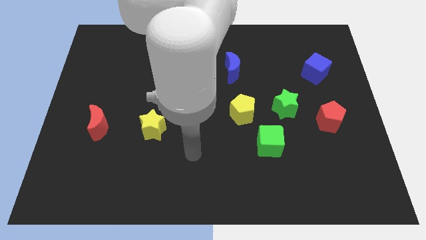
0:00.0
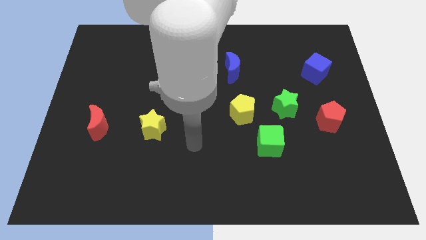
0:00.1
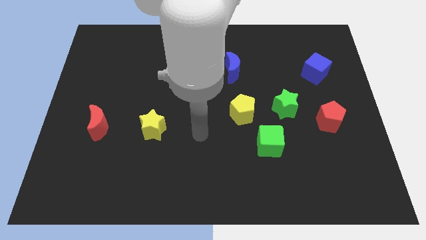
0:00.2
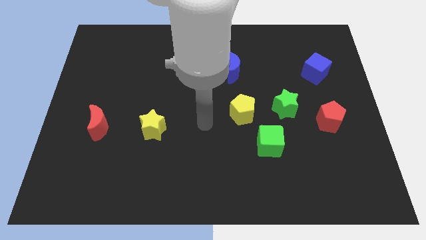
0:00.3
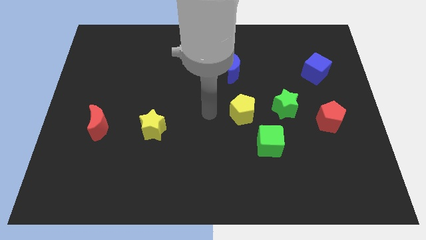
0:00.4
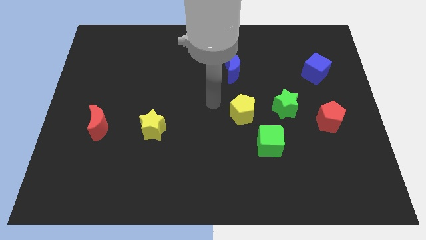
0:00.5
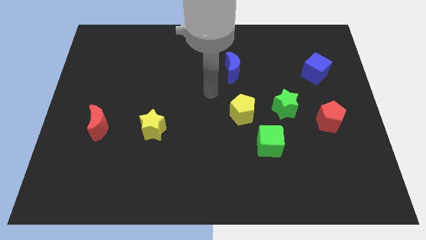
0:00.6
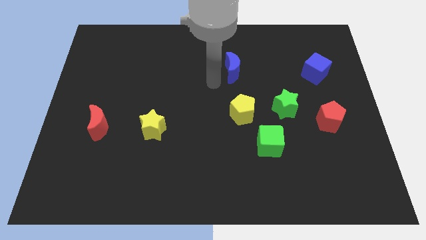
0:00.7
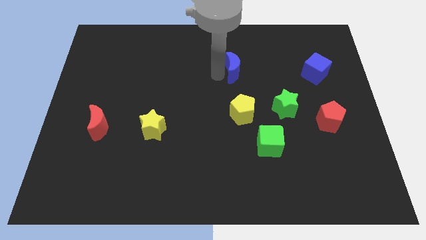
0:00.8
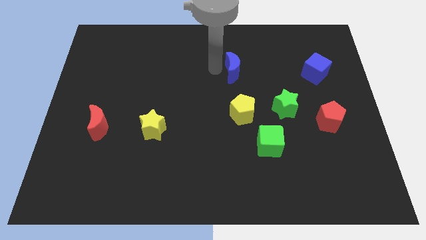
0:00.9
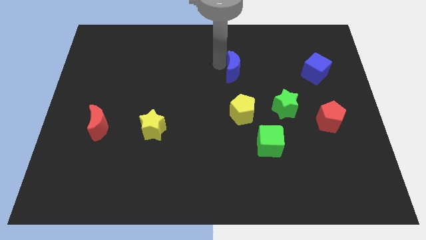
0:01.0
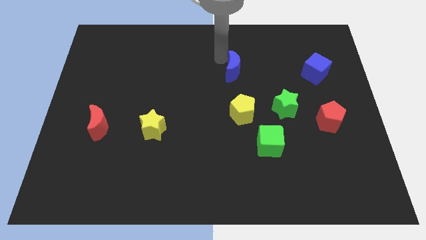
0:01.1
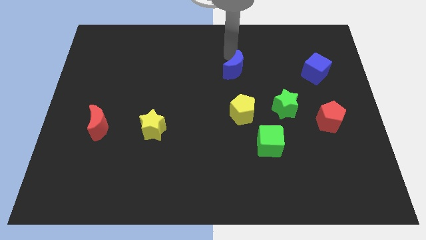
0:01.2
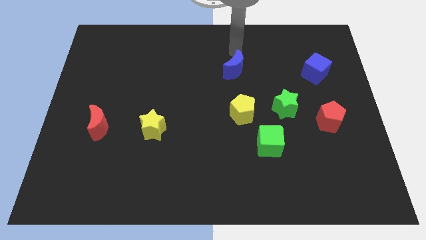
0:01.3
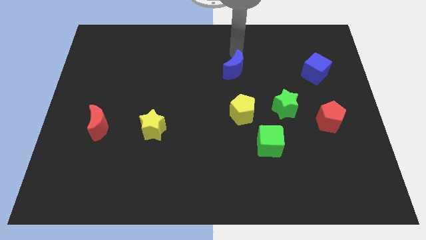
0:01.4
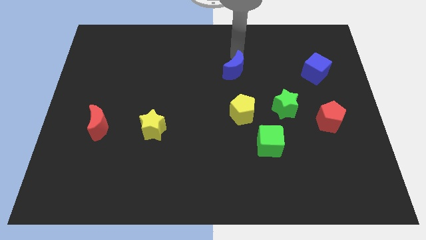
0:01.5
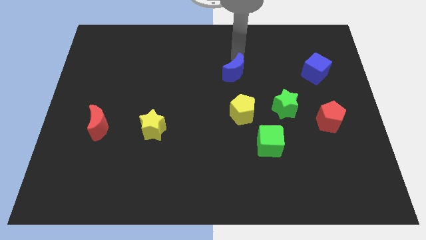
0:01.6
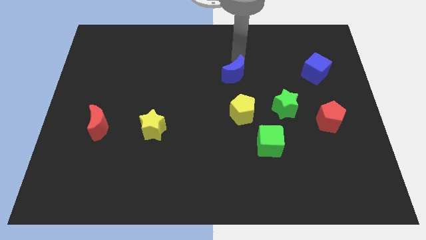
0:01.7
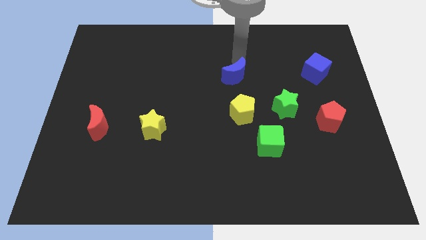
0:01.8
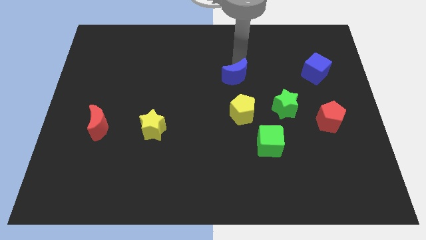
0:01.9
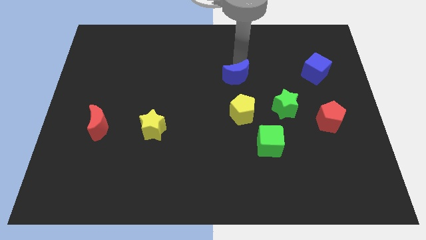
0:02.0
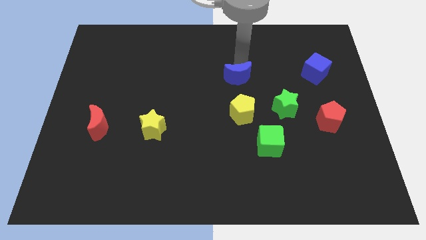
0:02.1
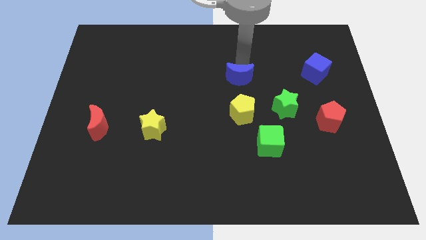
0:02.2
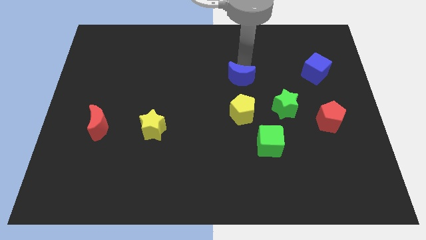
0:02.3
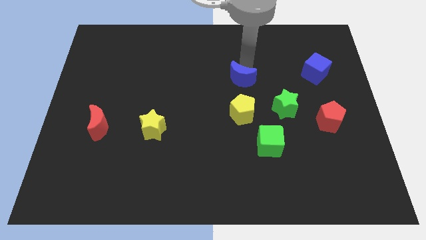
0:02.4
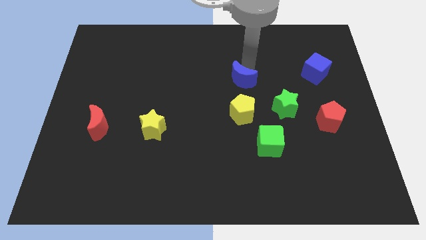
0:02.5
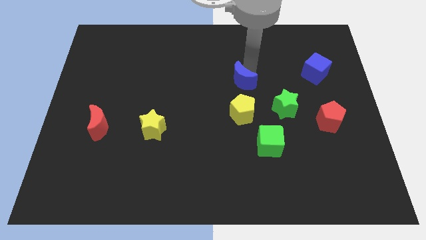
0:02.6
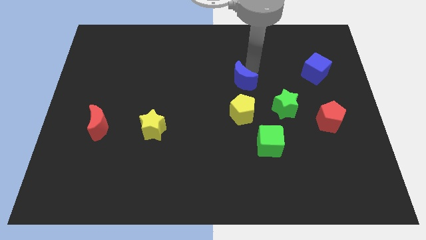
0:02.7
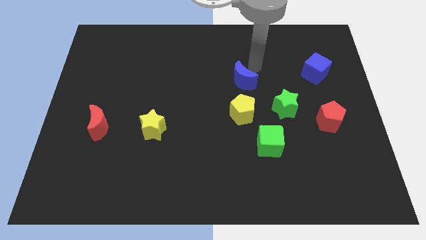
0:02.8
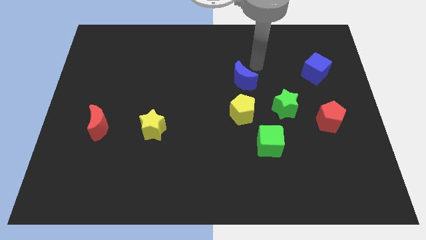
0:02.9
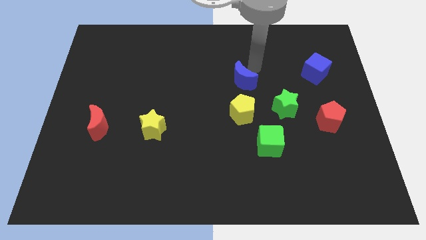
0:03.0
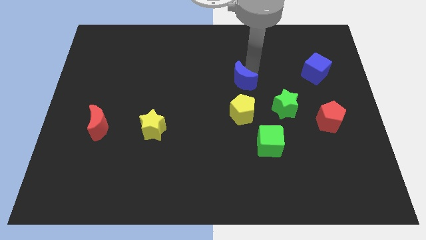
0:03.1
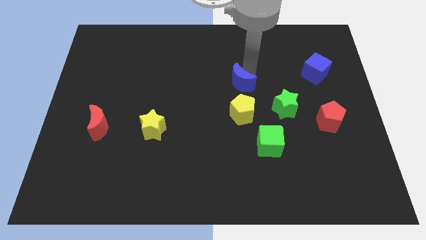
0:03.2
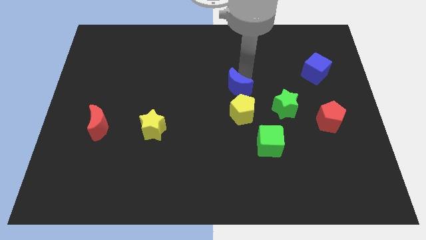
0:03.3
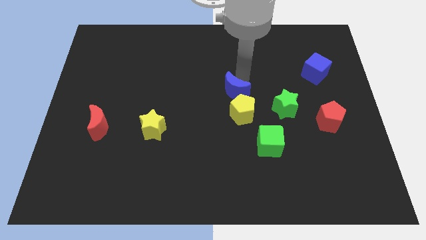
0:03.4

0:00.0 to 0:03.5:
slightly slide the blue moon downwards

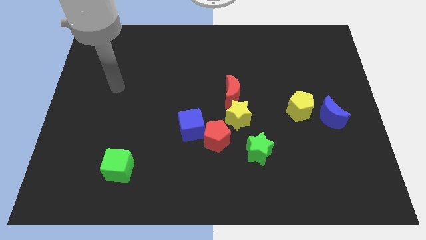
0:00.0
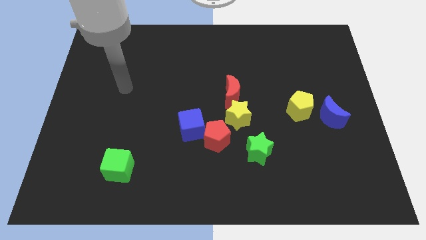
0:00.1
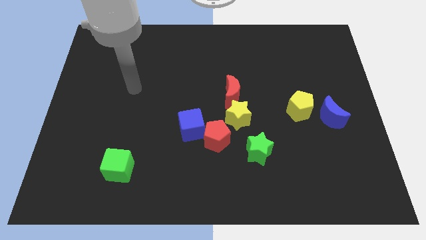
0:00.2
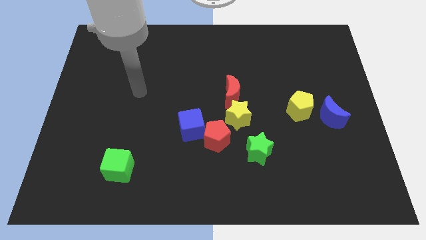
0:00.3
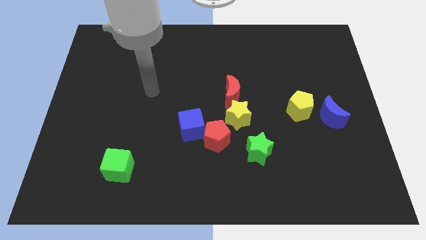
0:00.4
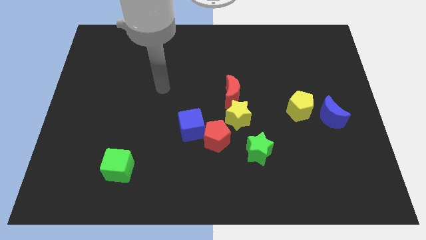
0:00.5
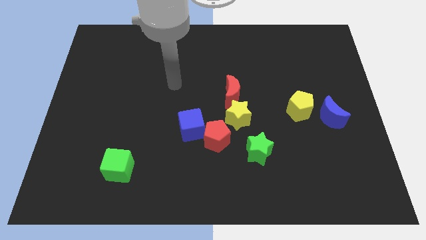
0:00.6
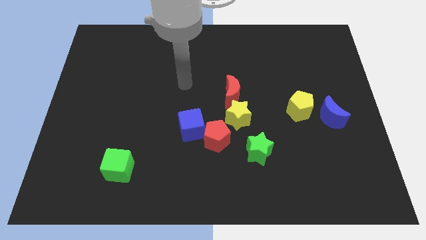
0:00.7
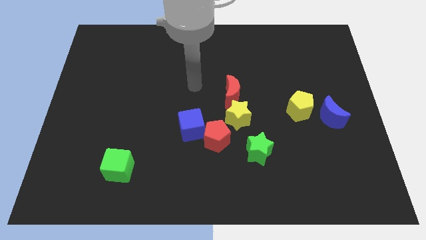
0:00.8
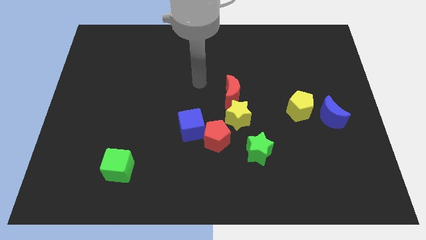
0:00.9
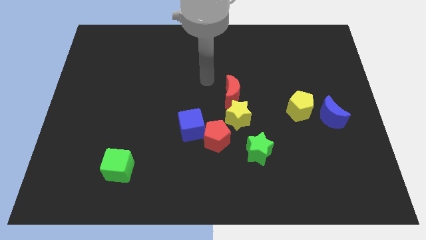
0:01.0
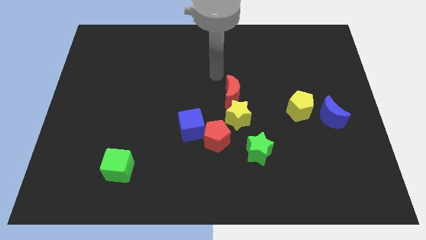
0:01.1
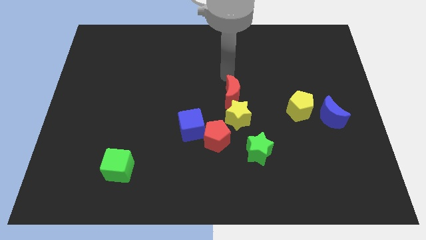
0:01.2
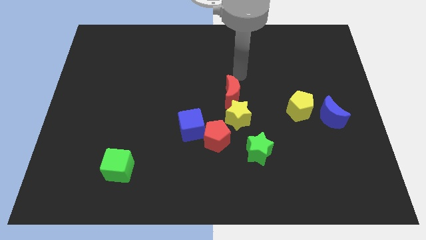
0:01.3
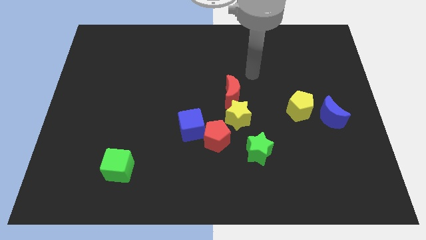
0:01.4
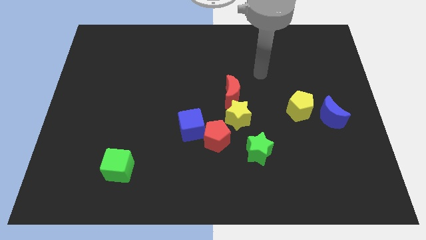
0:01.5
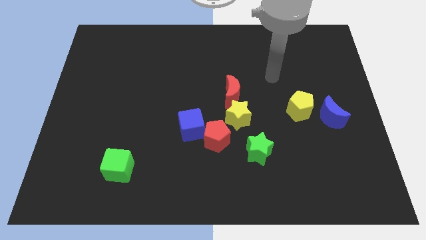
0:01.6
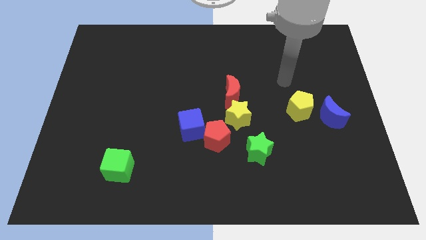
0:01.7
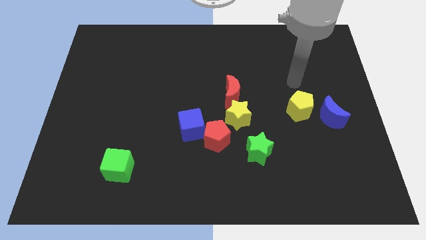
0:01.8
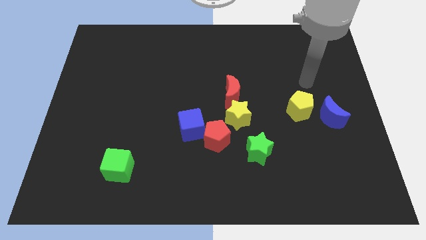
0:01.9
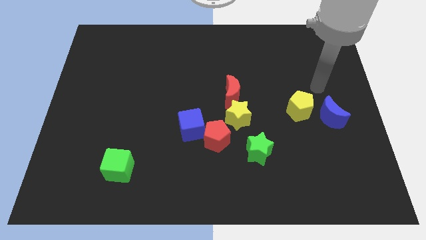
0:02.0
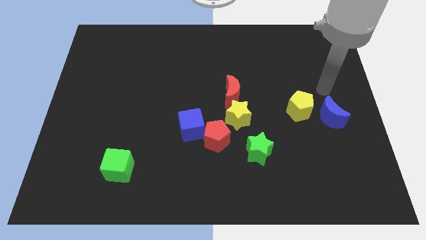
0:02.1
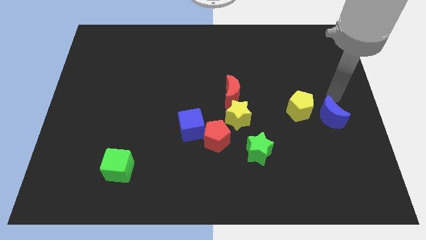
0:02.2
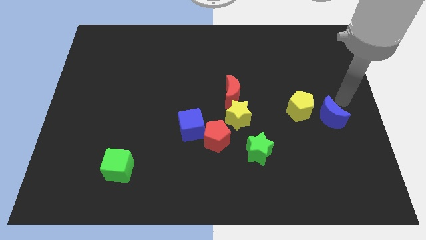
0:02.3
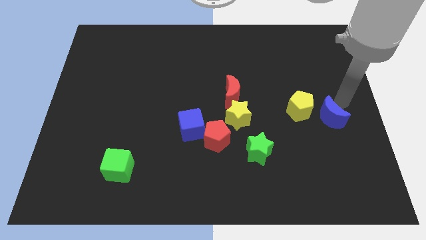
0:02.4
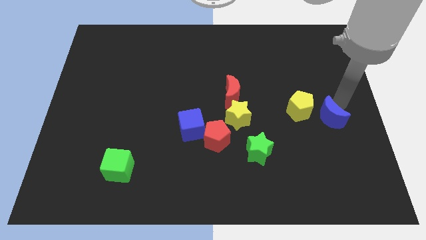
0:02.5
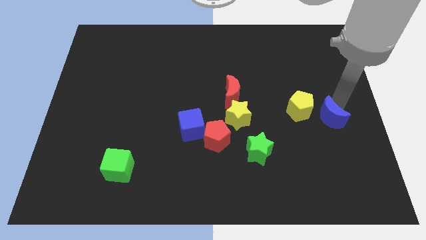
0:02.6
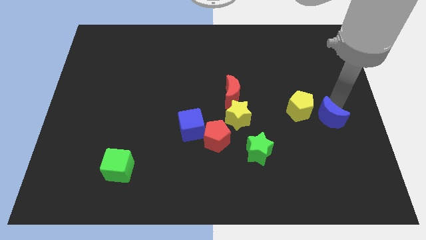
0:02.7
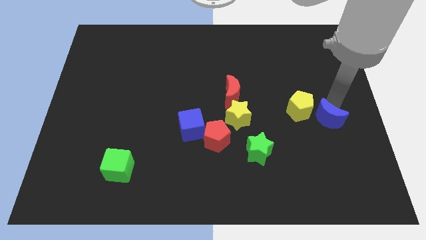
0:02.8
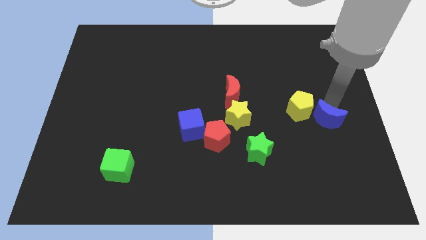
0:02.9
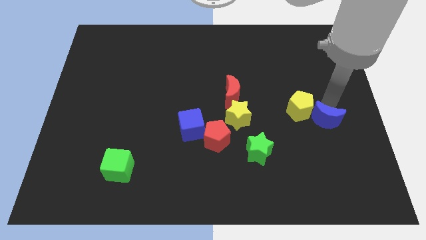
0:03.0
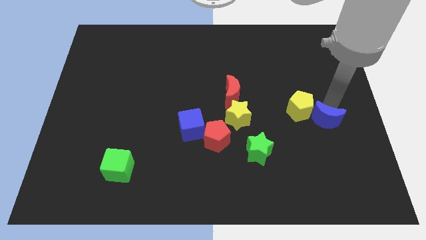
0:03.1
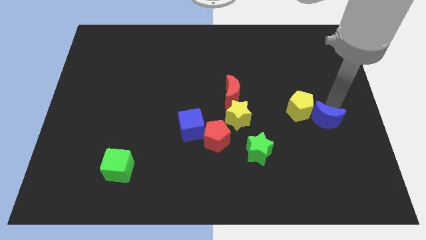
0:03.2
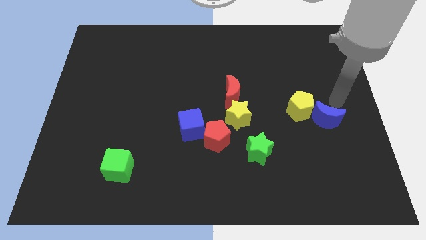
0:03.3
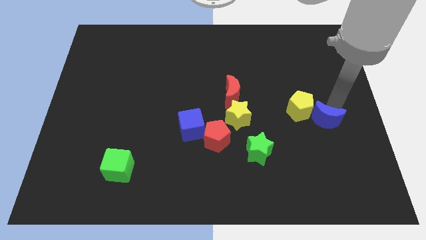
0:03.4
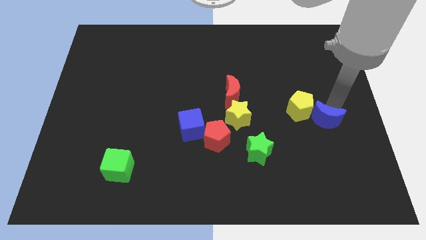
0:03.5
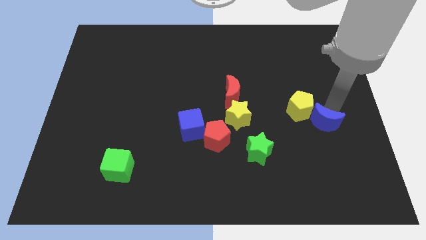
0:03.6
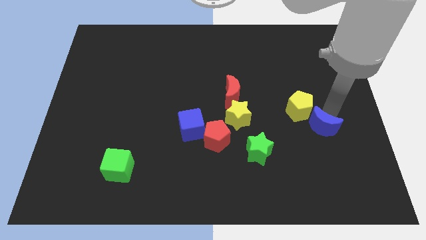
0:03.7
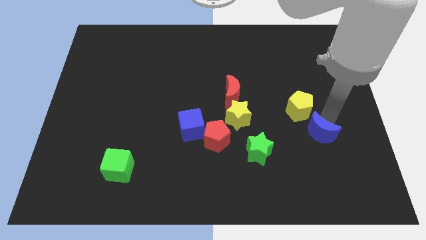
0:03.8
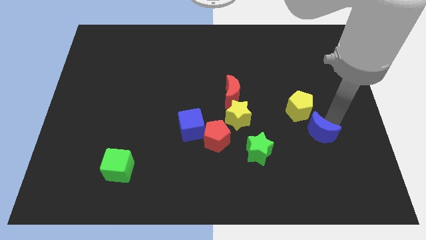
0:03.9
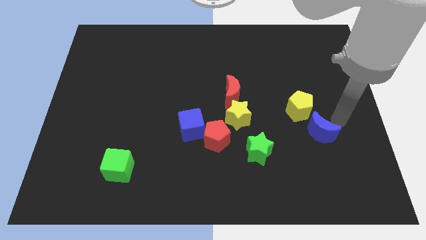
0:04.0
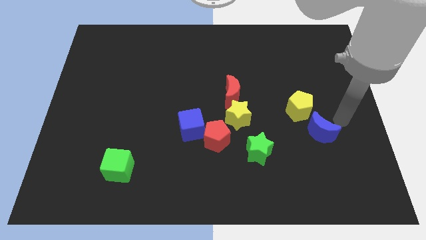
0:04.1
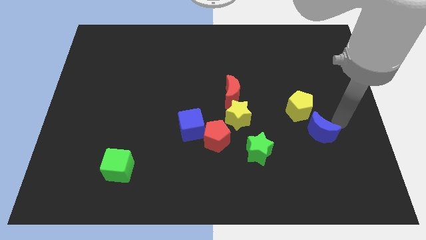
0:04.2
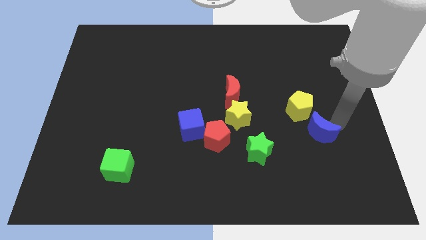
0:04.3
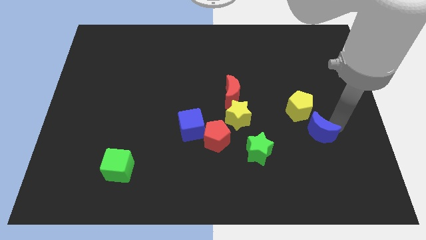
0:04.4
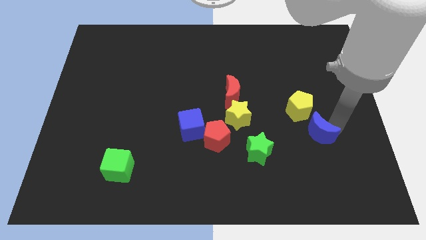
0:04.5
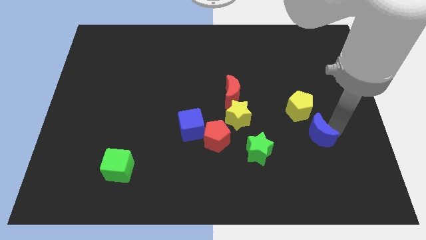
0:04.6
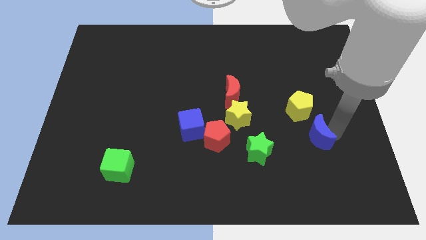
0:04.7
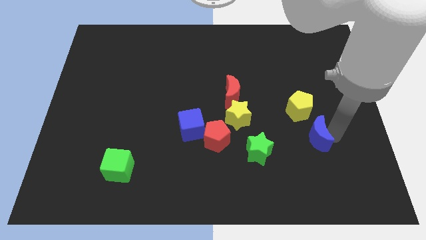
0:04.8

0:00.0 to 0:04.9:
slide the blue moon down and to the left diagonally a little
